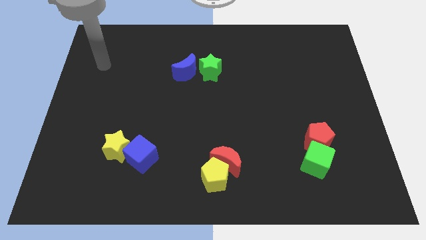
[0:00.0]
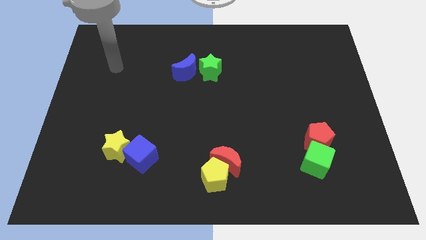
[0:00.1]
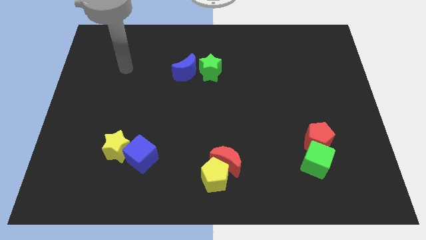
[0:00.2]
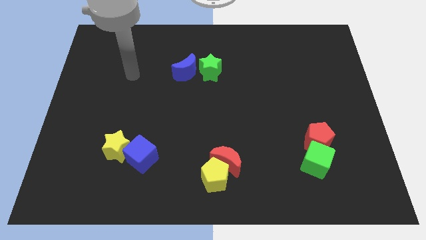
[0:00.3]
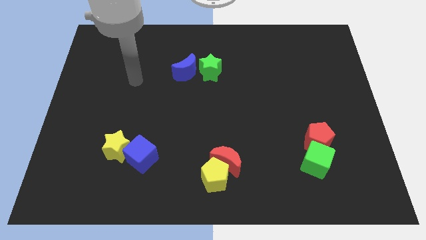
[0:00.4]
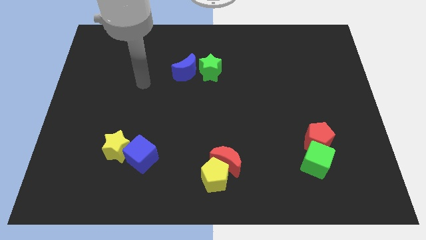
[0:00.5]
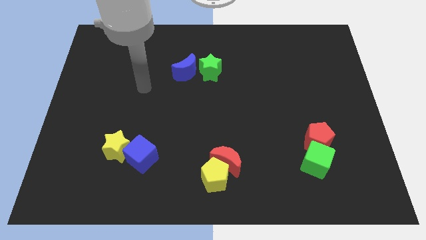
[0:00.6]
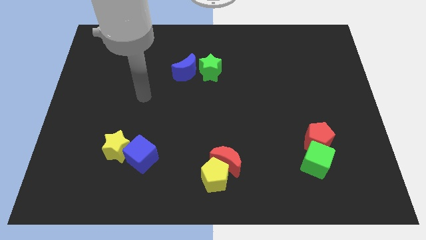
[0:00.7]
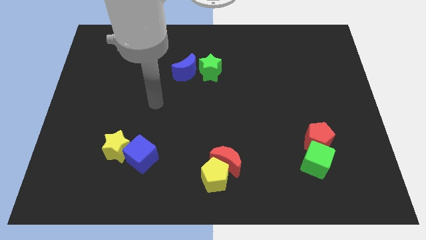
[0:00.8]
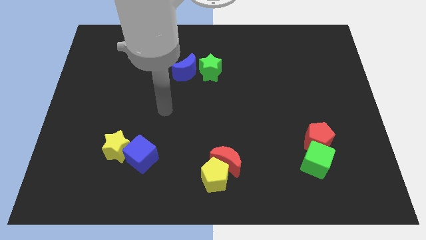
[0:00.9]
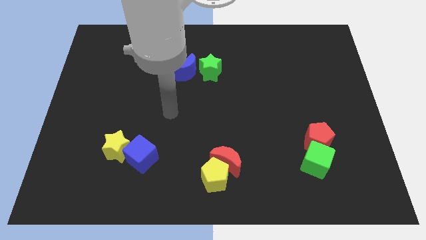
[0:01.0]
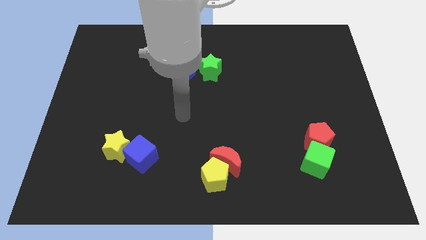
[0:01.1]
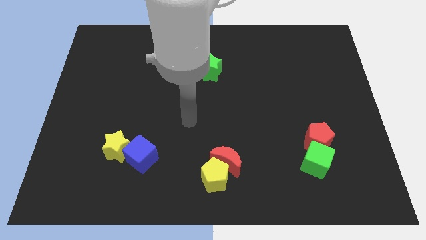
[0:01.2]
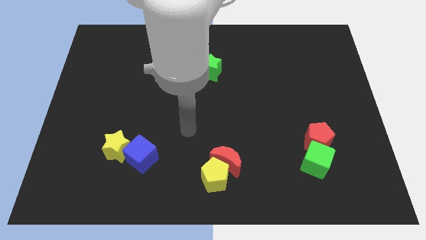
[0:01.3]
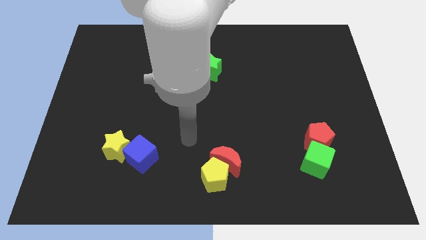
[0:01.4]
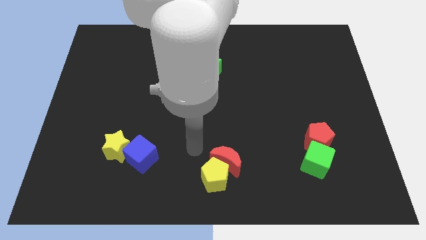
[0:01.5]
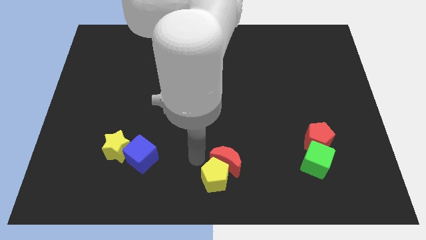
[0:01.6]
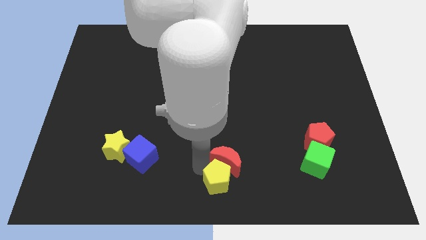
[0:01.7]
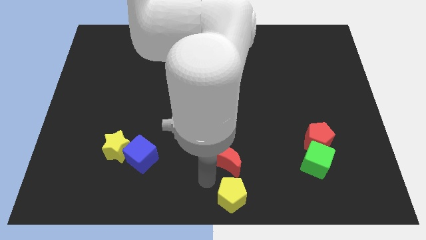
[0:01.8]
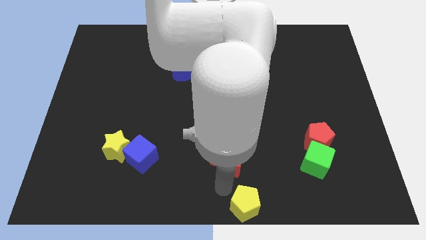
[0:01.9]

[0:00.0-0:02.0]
separate the red moon from the yellow pentagon

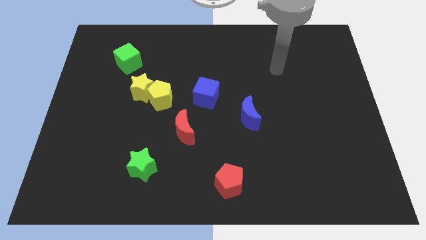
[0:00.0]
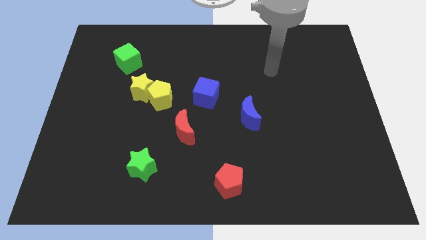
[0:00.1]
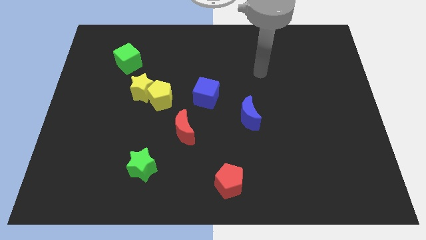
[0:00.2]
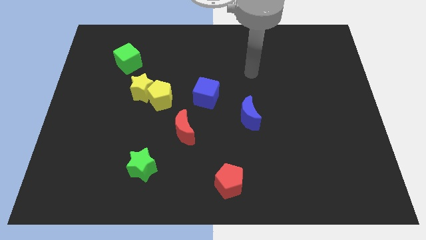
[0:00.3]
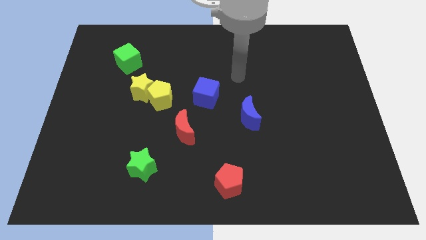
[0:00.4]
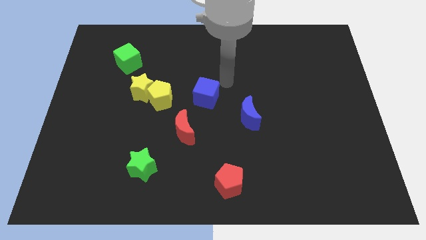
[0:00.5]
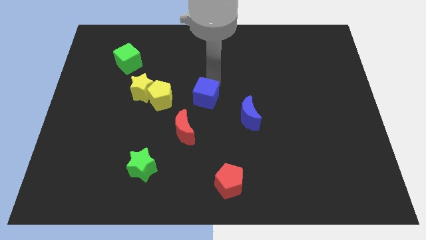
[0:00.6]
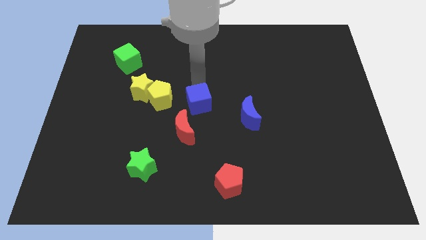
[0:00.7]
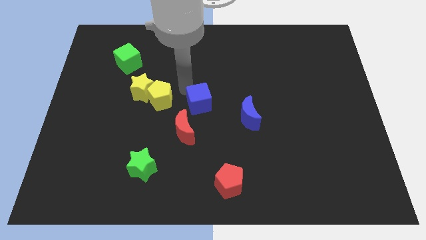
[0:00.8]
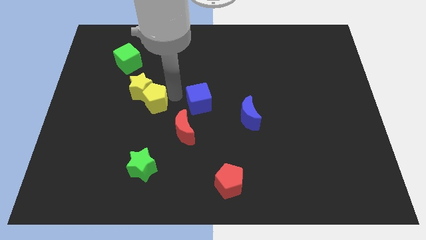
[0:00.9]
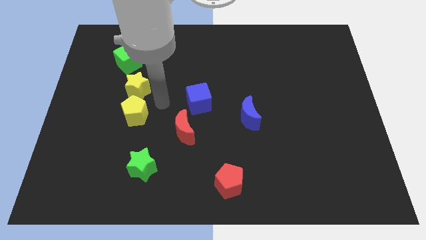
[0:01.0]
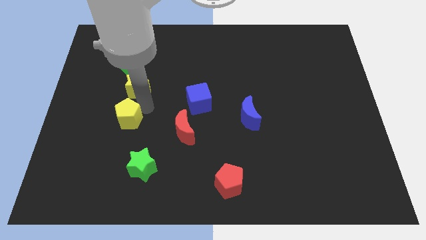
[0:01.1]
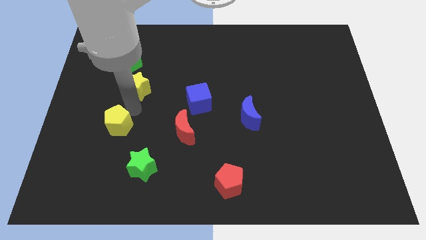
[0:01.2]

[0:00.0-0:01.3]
separate the yellow star from the yellow pentagon

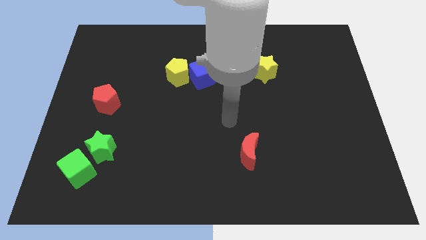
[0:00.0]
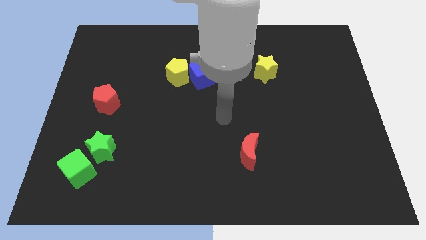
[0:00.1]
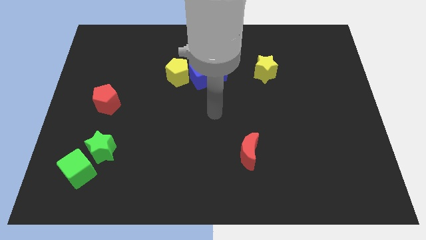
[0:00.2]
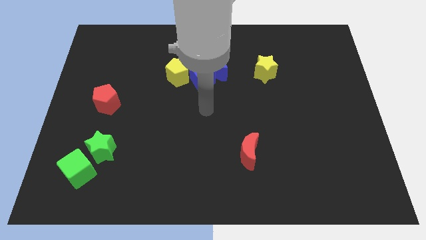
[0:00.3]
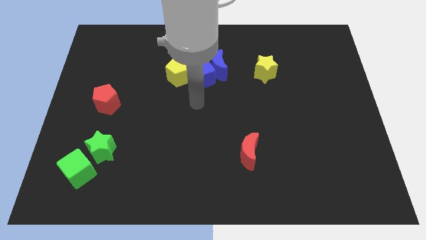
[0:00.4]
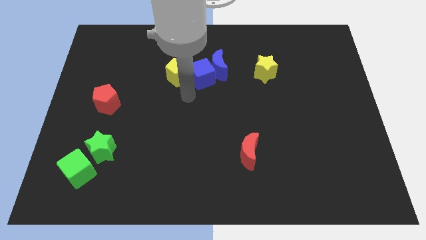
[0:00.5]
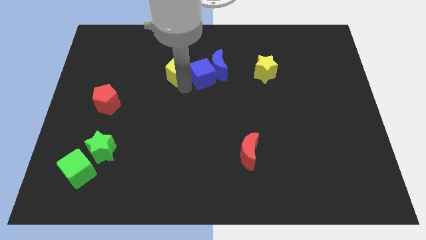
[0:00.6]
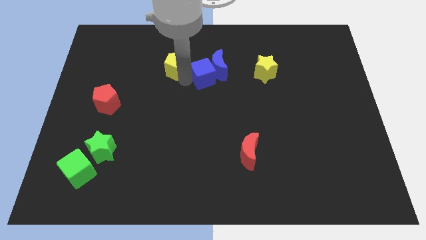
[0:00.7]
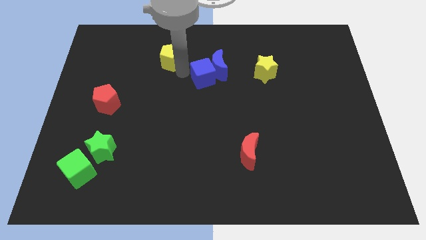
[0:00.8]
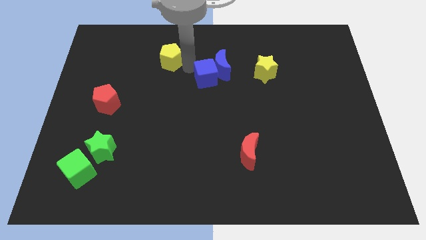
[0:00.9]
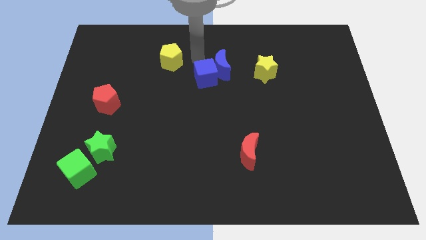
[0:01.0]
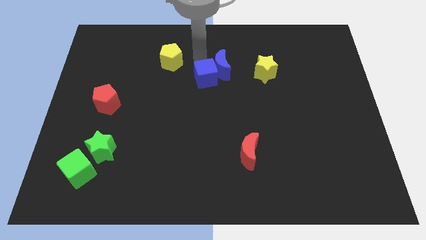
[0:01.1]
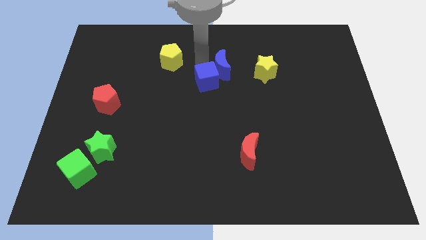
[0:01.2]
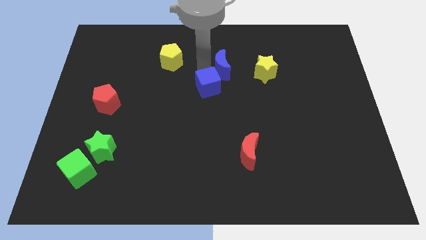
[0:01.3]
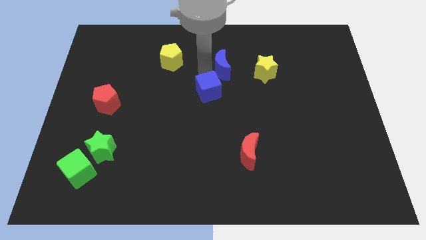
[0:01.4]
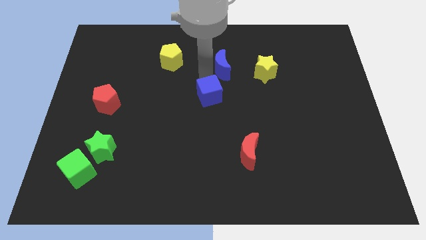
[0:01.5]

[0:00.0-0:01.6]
pull the blue cube apart from the blue moon and yellow pentagon

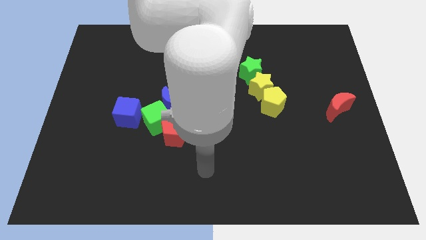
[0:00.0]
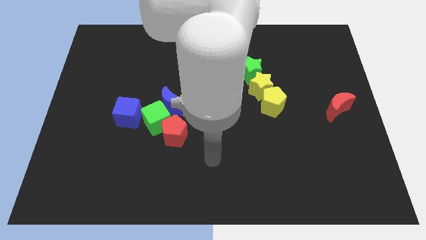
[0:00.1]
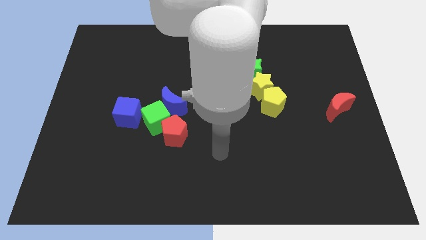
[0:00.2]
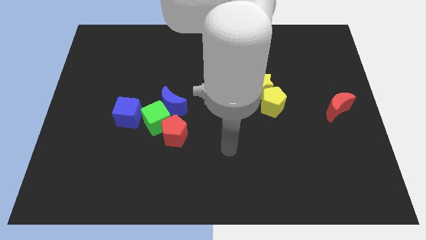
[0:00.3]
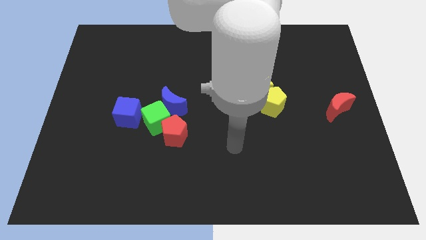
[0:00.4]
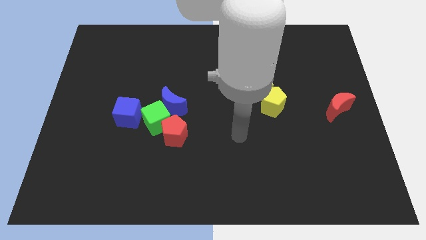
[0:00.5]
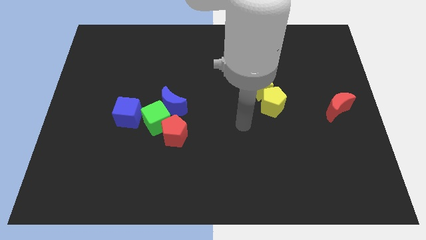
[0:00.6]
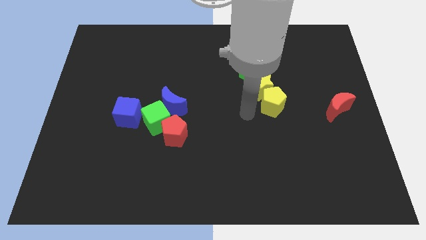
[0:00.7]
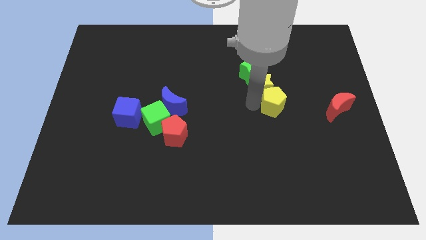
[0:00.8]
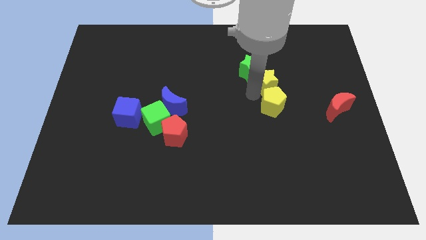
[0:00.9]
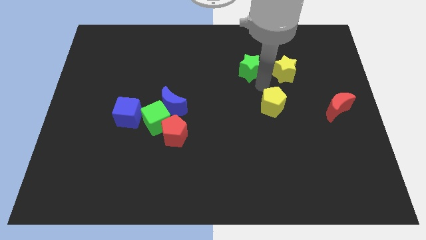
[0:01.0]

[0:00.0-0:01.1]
pull the yellow pentagon apart from the yellow star

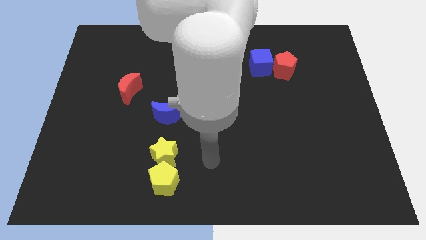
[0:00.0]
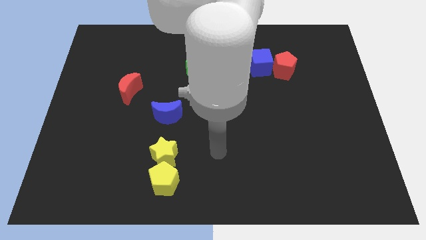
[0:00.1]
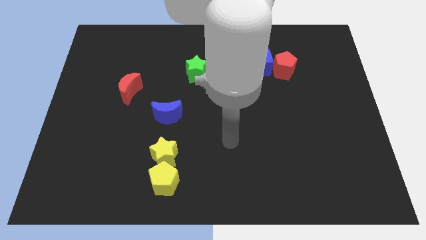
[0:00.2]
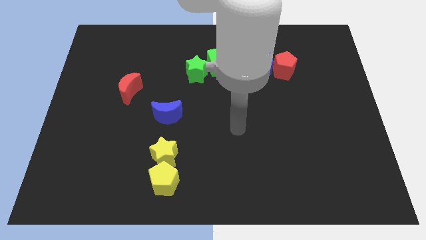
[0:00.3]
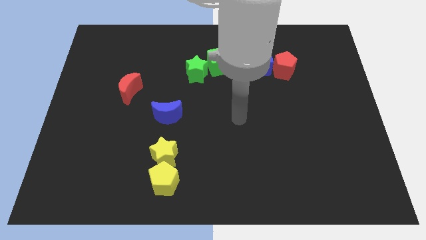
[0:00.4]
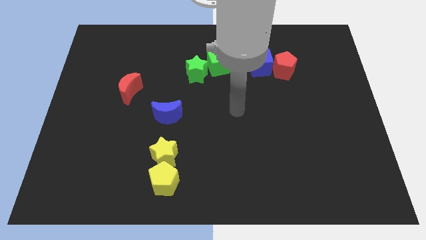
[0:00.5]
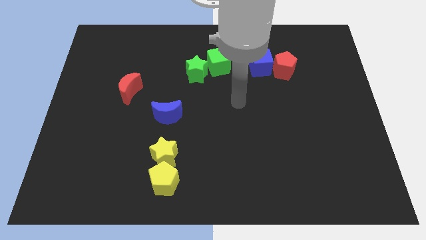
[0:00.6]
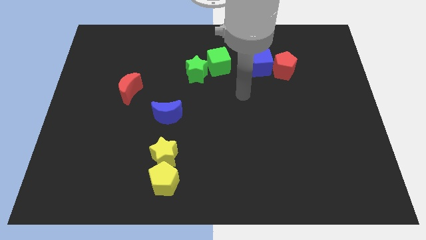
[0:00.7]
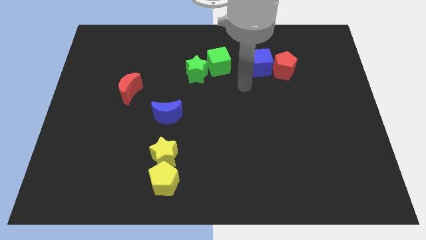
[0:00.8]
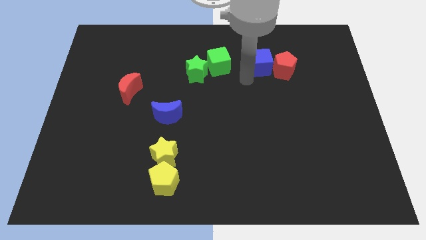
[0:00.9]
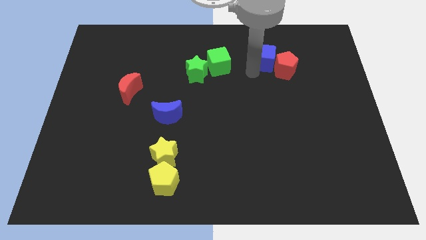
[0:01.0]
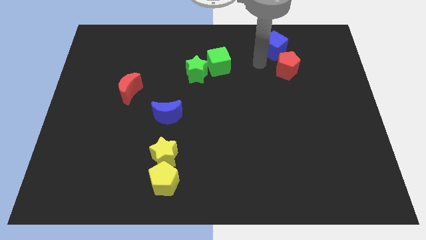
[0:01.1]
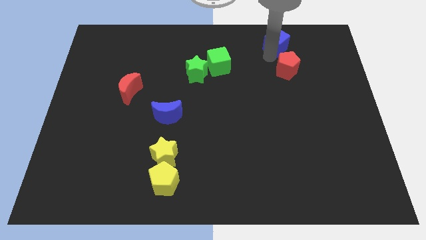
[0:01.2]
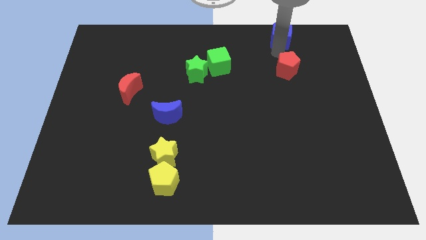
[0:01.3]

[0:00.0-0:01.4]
move the red pentagon away from the blue cube

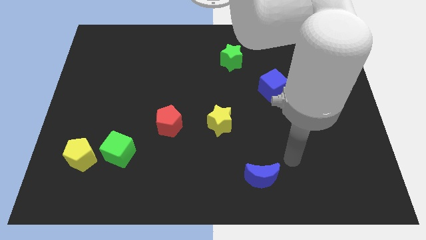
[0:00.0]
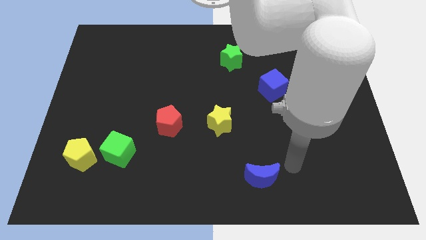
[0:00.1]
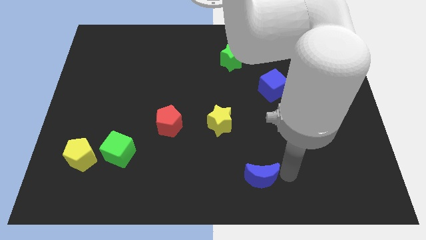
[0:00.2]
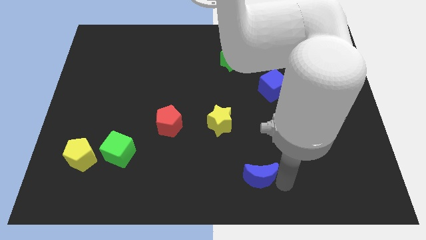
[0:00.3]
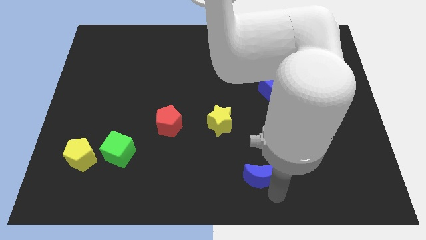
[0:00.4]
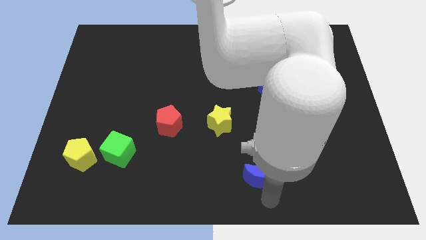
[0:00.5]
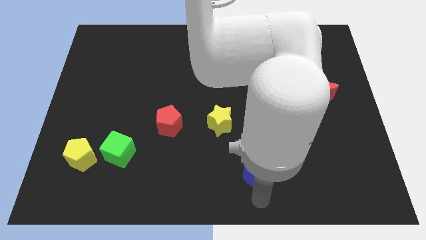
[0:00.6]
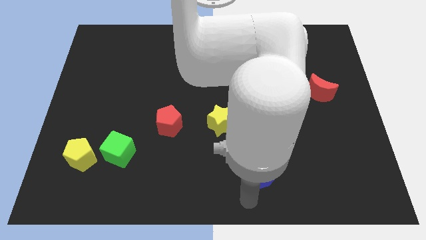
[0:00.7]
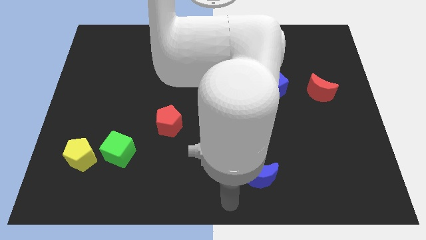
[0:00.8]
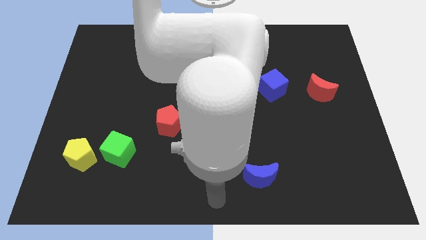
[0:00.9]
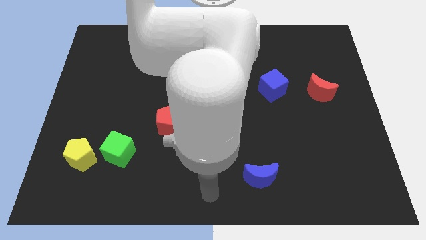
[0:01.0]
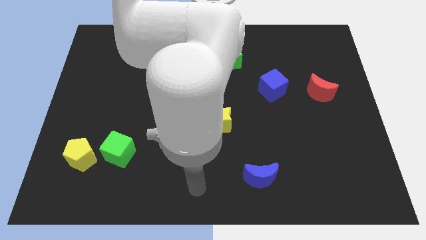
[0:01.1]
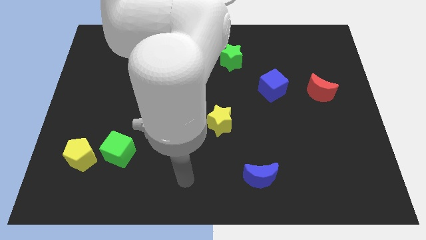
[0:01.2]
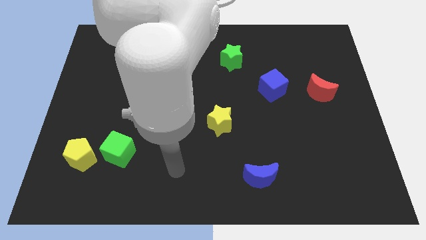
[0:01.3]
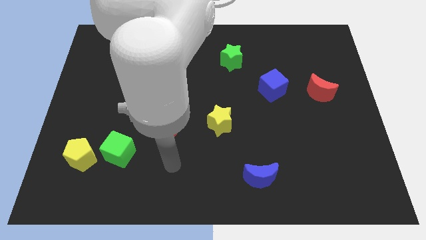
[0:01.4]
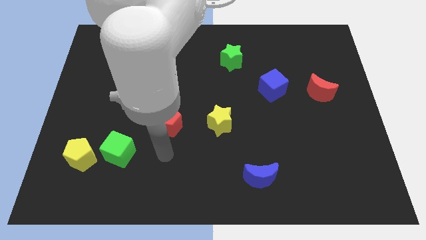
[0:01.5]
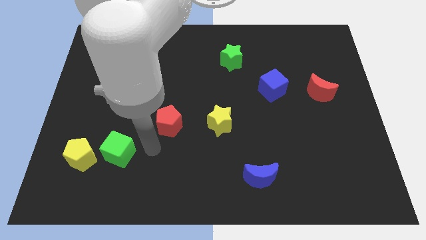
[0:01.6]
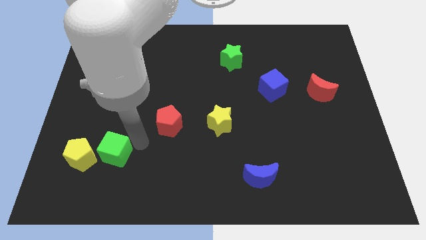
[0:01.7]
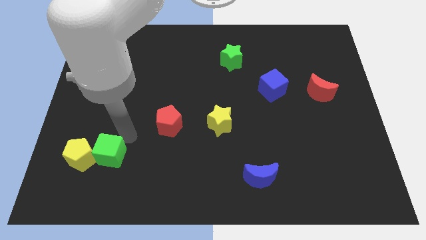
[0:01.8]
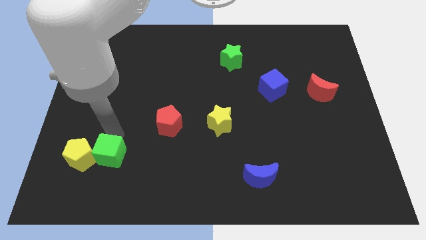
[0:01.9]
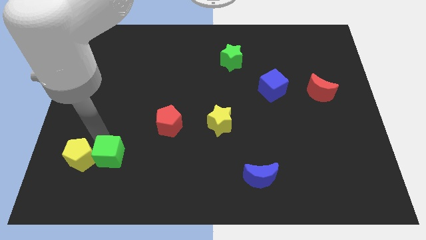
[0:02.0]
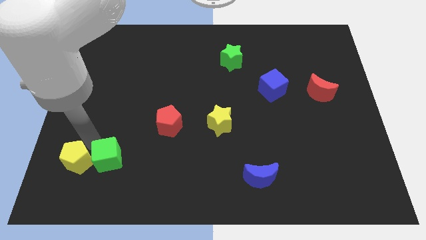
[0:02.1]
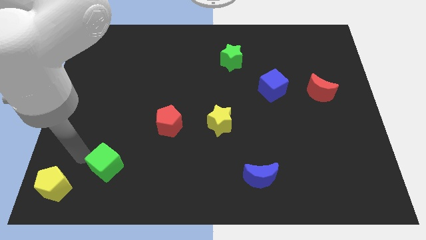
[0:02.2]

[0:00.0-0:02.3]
move the green cube away from the yellow pentagon
